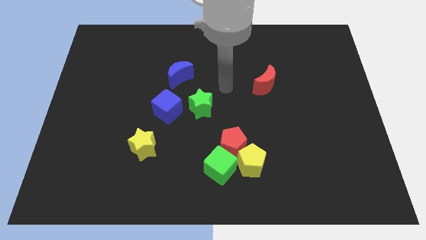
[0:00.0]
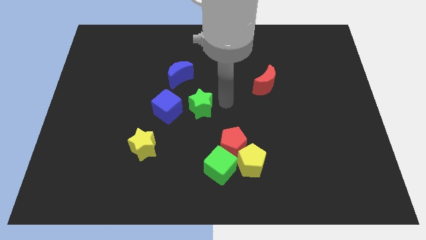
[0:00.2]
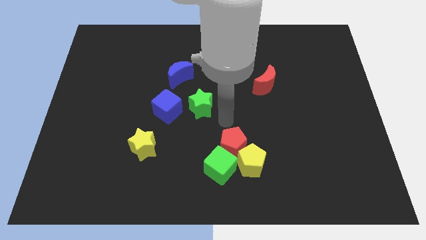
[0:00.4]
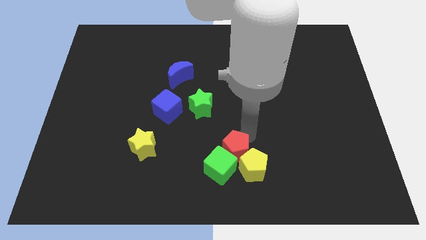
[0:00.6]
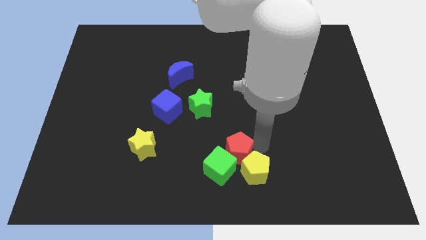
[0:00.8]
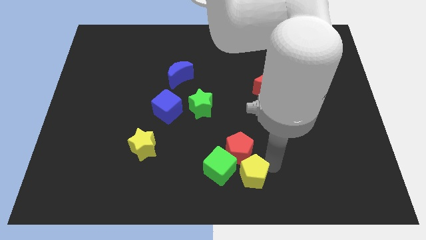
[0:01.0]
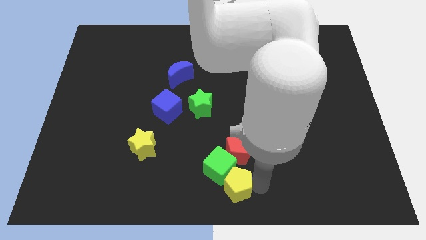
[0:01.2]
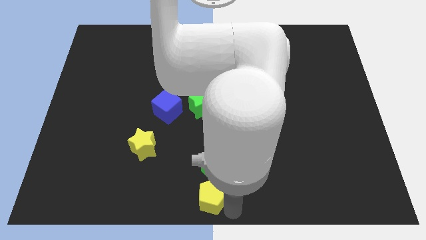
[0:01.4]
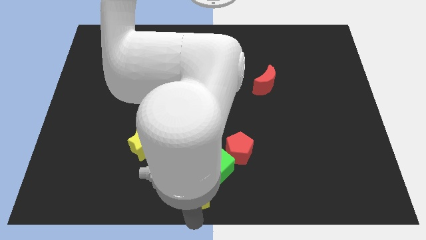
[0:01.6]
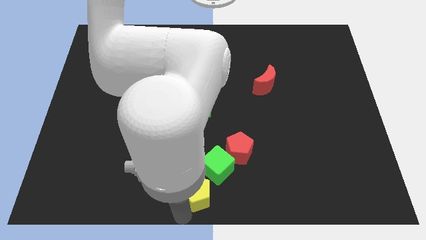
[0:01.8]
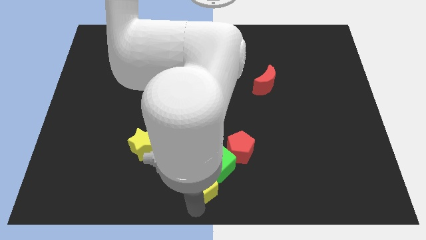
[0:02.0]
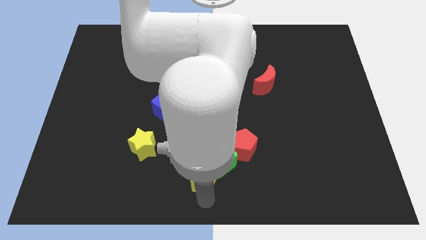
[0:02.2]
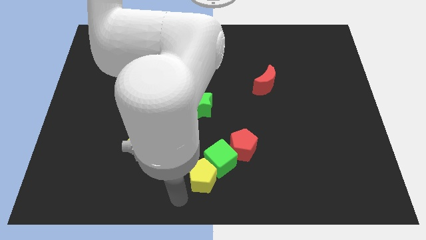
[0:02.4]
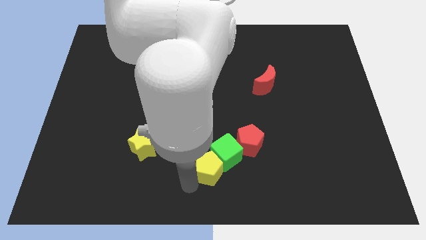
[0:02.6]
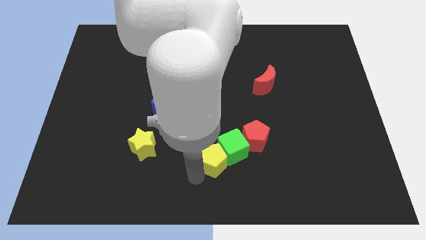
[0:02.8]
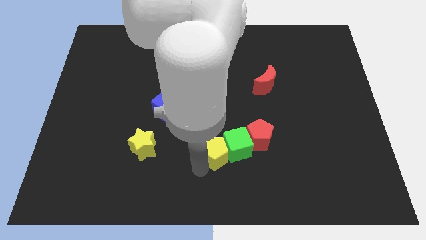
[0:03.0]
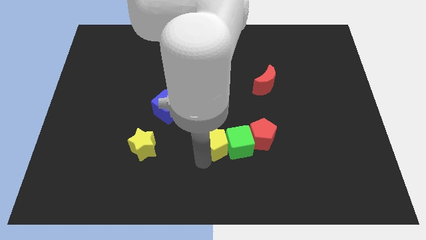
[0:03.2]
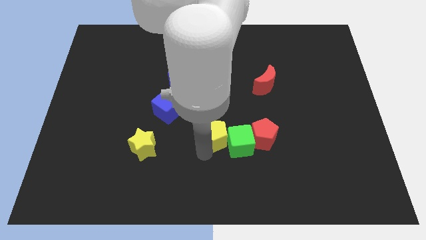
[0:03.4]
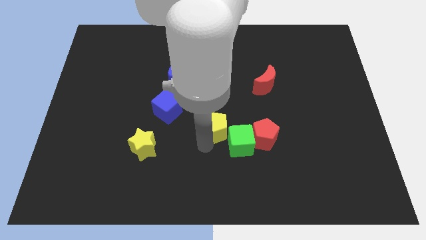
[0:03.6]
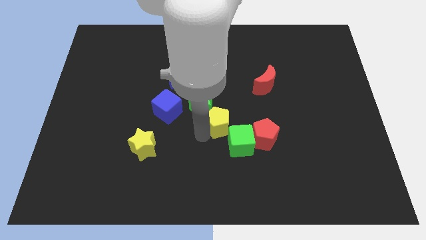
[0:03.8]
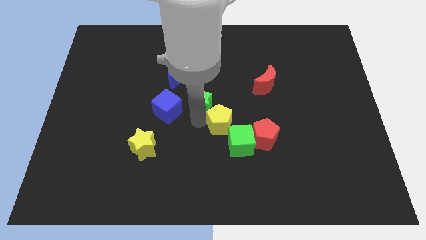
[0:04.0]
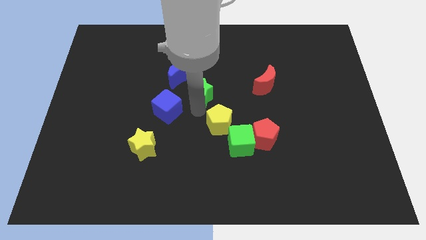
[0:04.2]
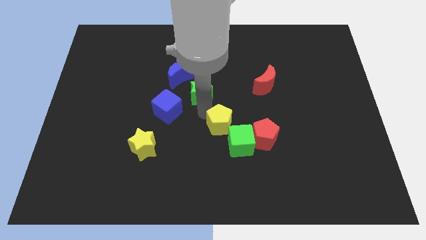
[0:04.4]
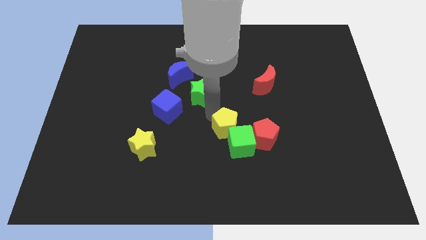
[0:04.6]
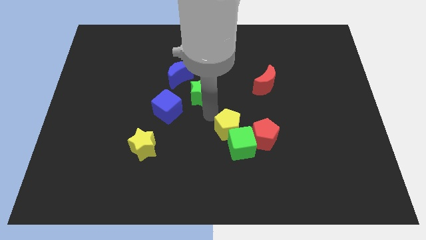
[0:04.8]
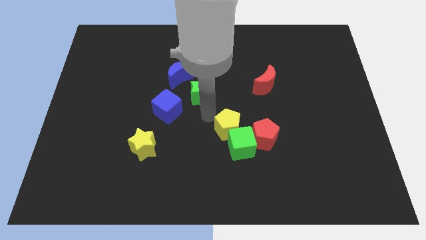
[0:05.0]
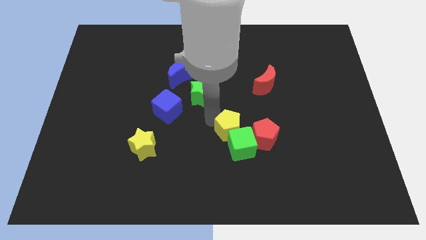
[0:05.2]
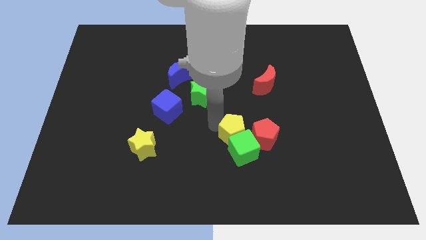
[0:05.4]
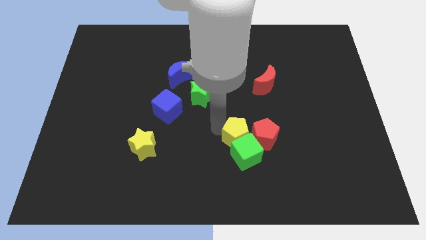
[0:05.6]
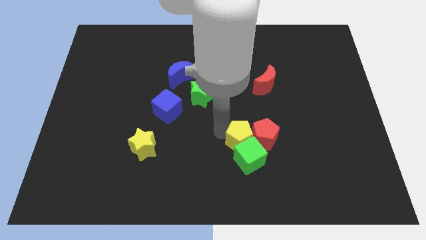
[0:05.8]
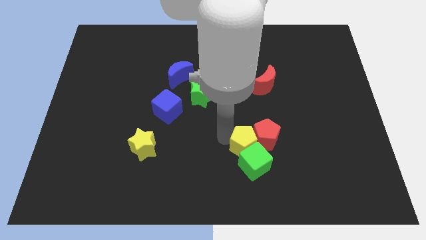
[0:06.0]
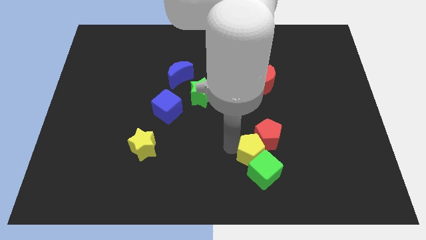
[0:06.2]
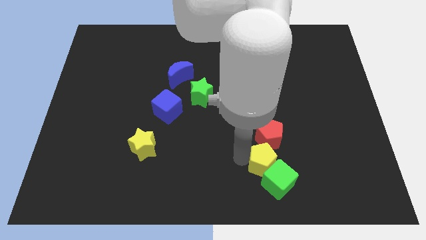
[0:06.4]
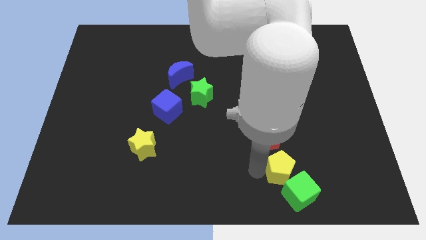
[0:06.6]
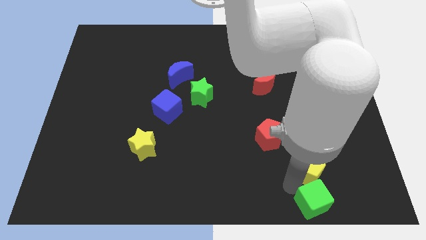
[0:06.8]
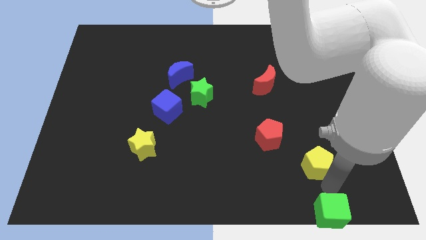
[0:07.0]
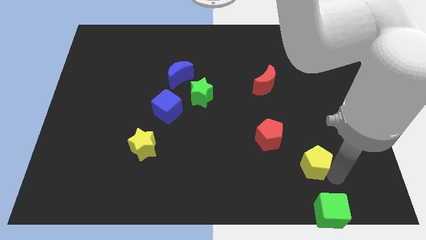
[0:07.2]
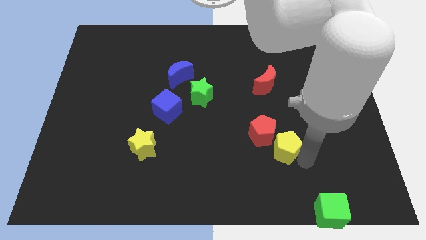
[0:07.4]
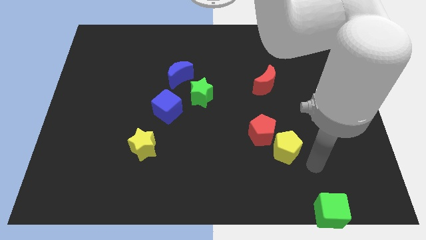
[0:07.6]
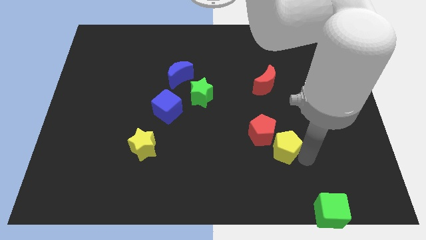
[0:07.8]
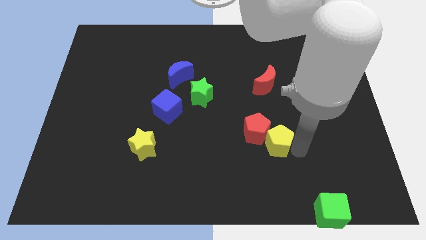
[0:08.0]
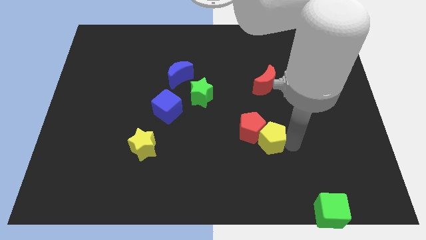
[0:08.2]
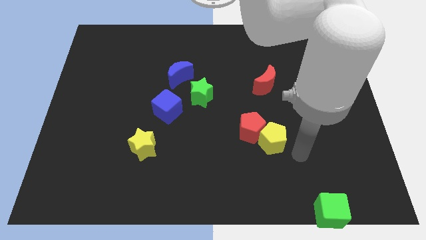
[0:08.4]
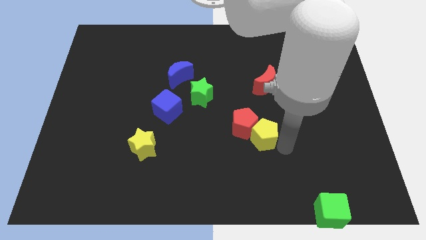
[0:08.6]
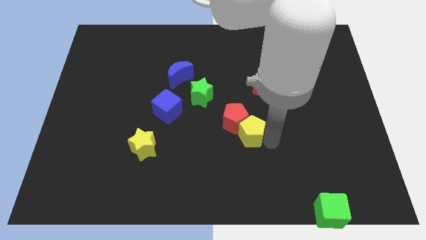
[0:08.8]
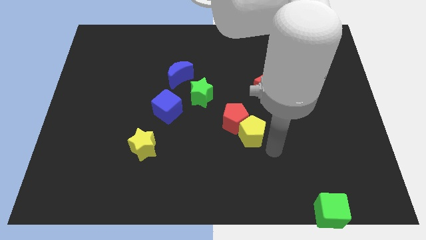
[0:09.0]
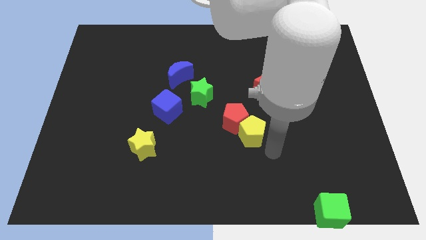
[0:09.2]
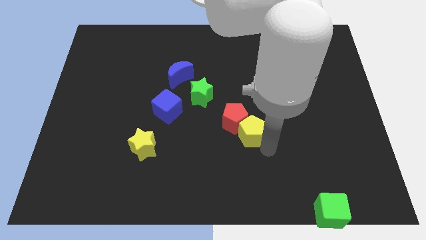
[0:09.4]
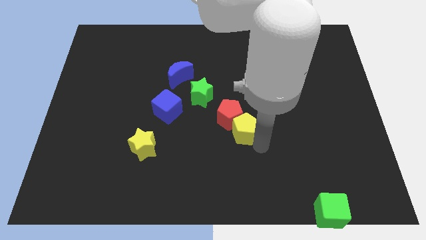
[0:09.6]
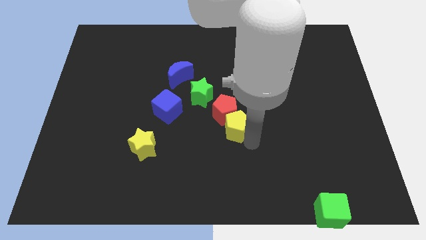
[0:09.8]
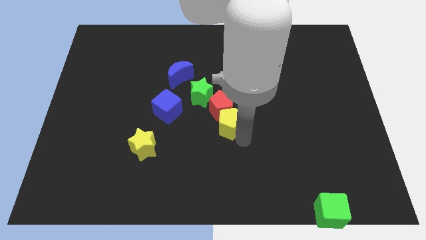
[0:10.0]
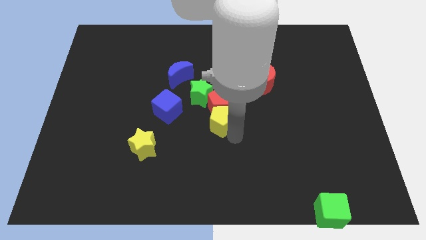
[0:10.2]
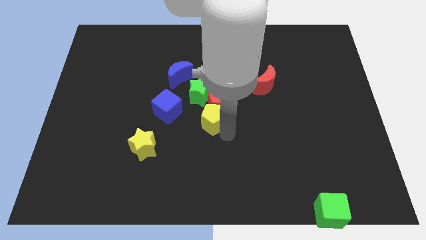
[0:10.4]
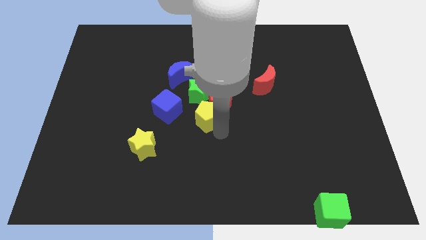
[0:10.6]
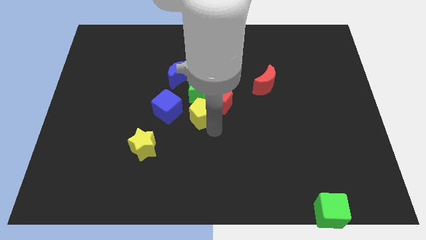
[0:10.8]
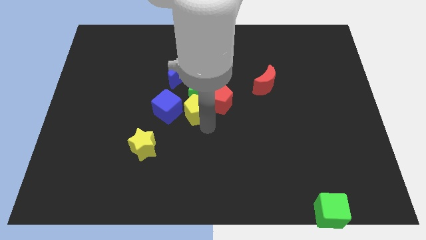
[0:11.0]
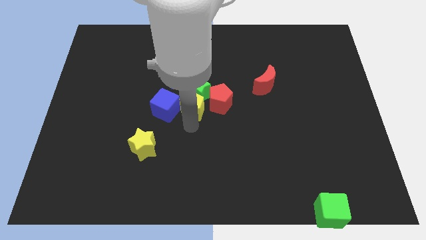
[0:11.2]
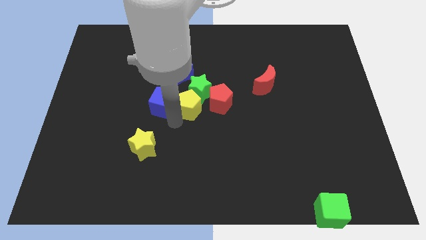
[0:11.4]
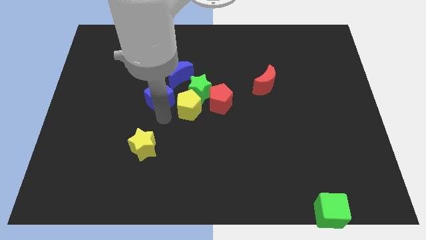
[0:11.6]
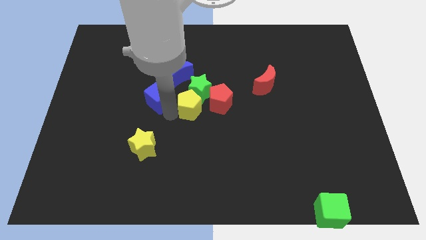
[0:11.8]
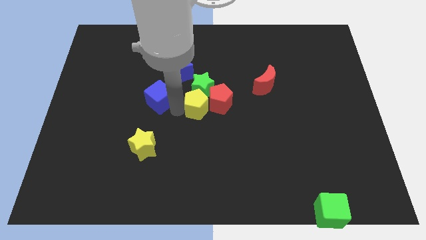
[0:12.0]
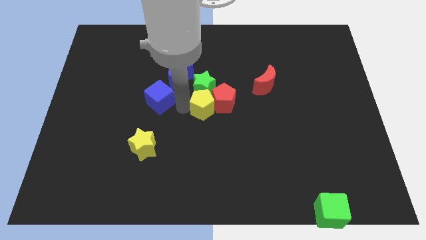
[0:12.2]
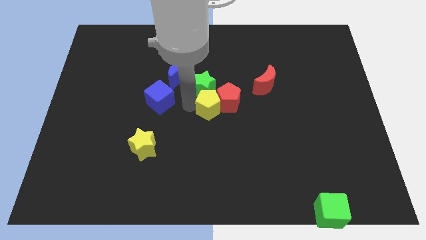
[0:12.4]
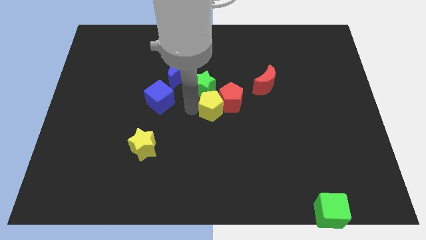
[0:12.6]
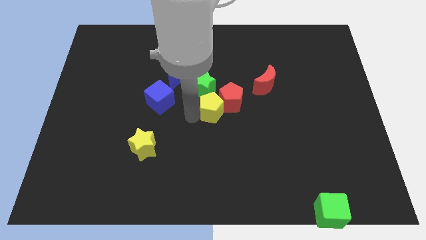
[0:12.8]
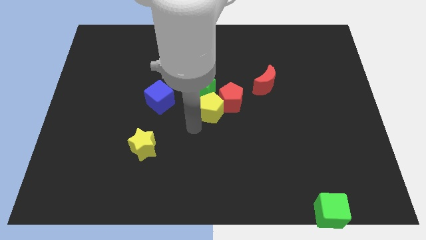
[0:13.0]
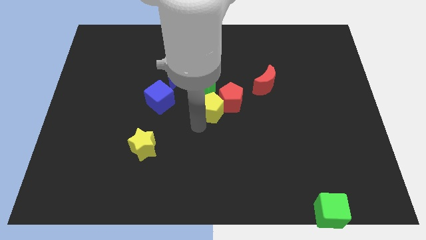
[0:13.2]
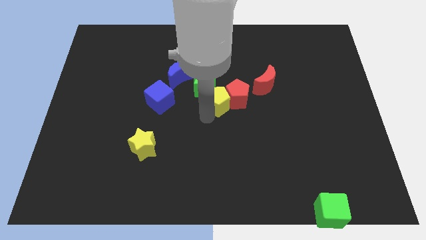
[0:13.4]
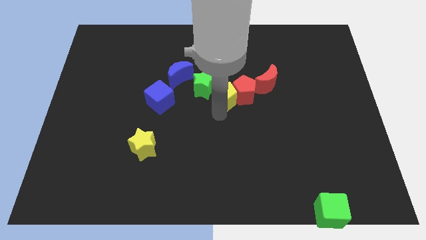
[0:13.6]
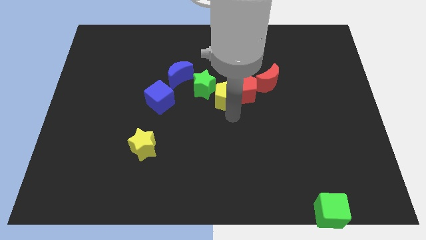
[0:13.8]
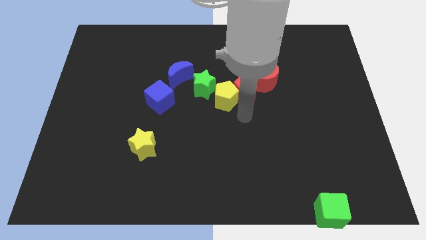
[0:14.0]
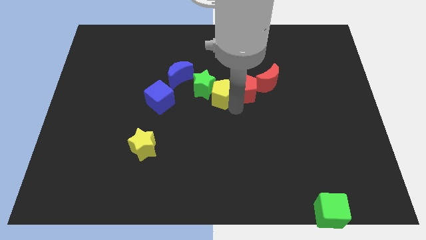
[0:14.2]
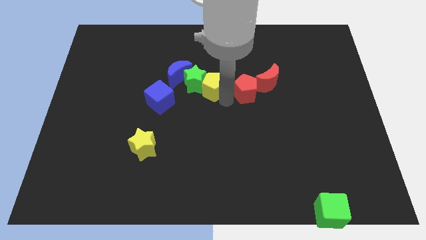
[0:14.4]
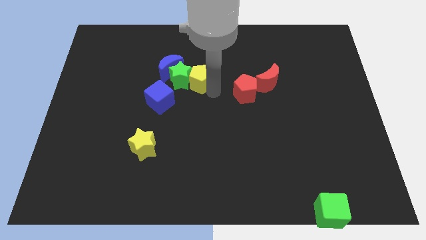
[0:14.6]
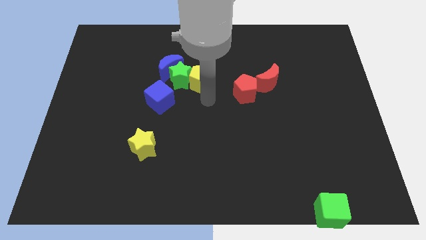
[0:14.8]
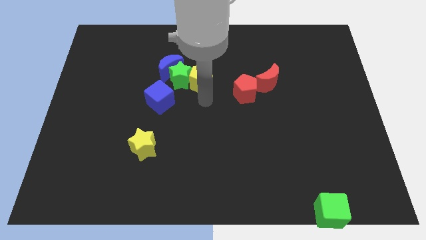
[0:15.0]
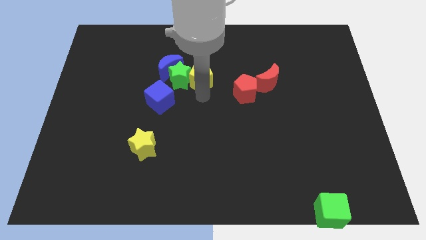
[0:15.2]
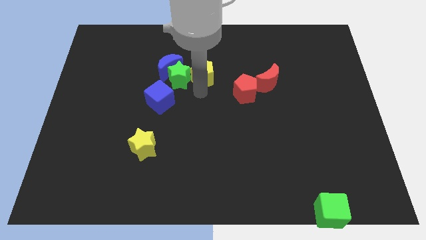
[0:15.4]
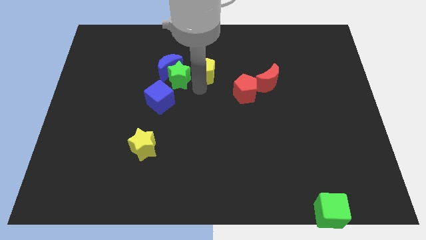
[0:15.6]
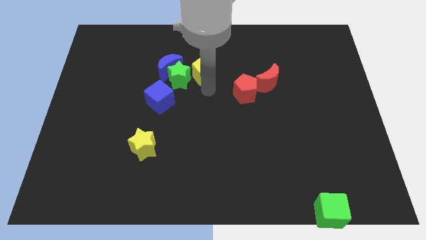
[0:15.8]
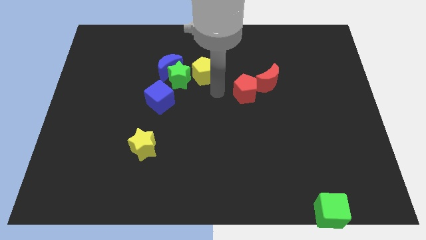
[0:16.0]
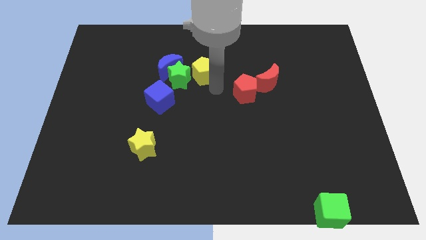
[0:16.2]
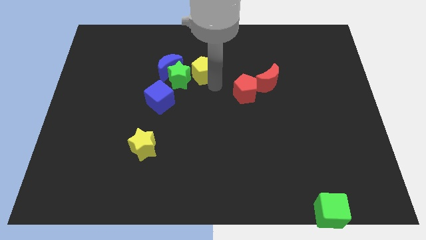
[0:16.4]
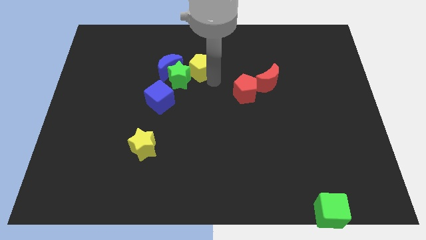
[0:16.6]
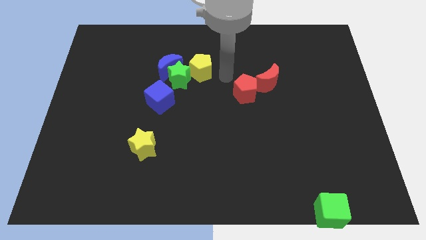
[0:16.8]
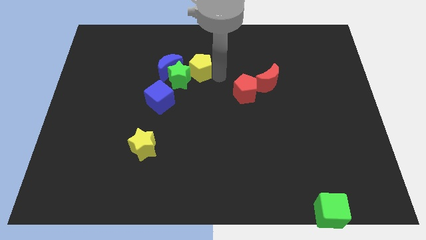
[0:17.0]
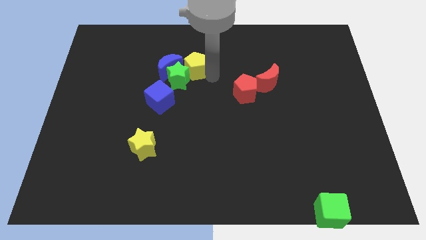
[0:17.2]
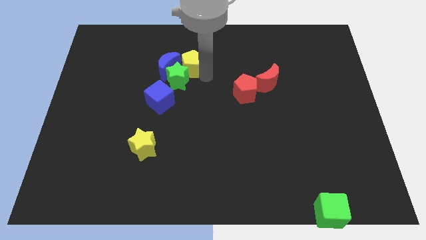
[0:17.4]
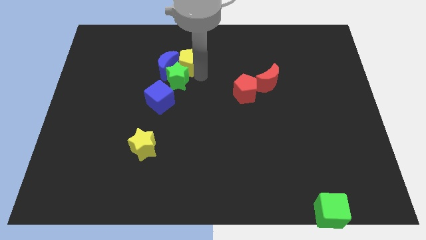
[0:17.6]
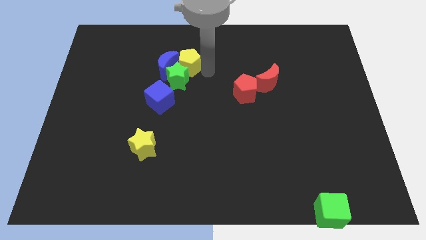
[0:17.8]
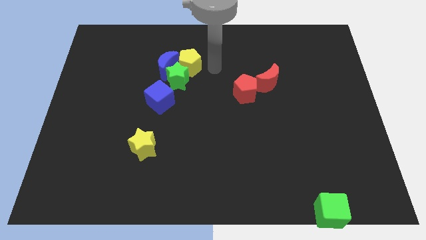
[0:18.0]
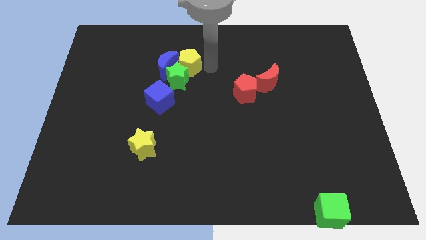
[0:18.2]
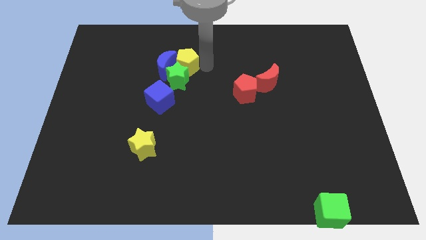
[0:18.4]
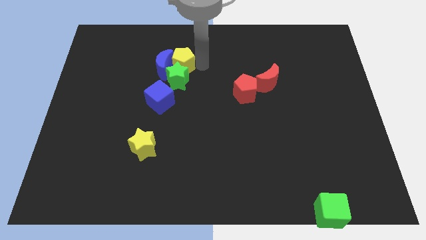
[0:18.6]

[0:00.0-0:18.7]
push the yellow pentagon to the top side of the blue cube
